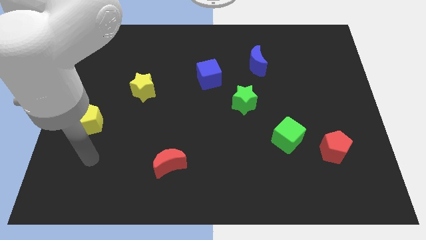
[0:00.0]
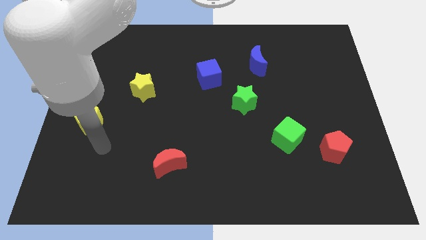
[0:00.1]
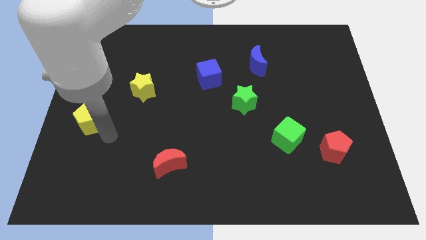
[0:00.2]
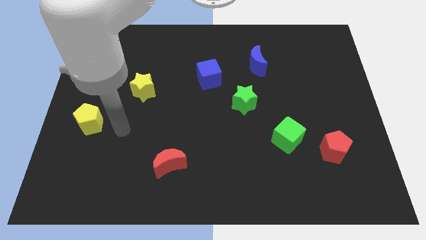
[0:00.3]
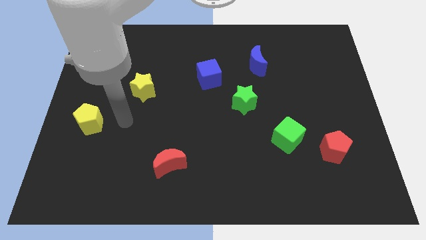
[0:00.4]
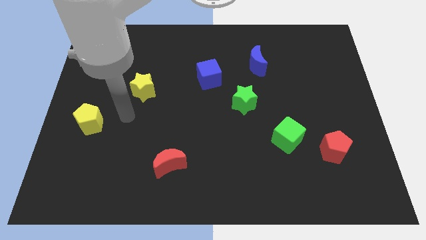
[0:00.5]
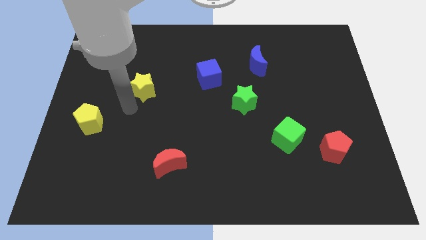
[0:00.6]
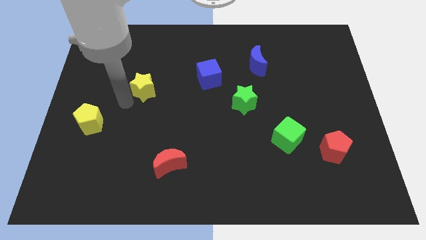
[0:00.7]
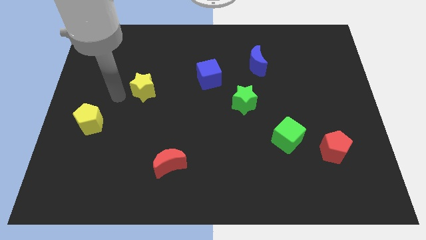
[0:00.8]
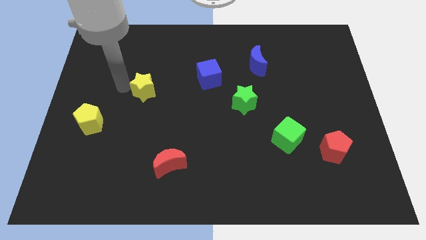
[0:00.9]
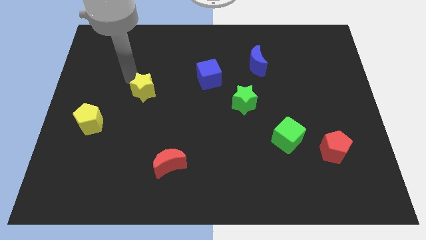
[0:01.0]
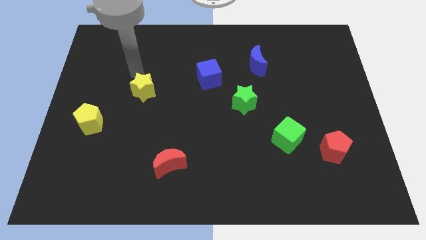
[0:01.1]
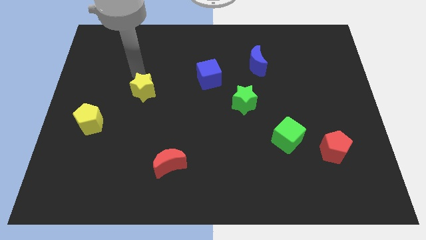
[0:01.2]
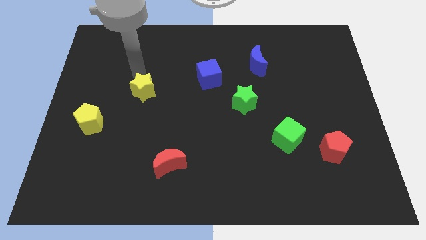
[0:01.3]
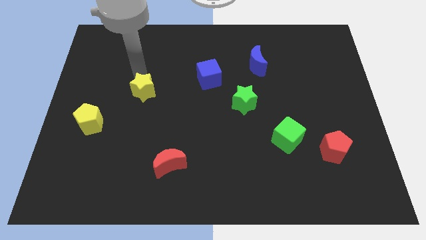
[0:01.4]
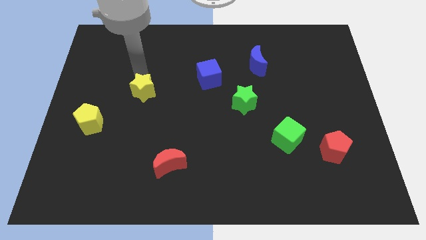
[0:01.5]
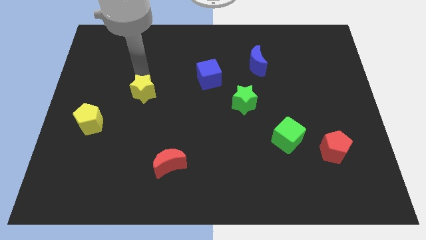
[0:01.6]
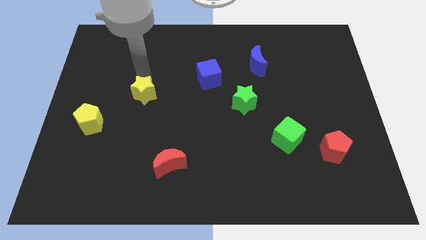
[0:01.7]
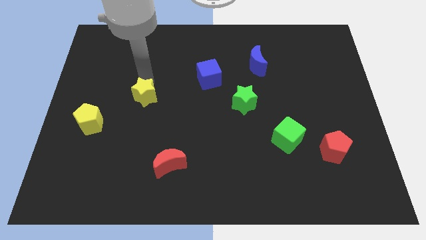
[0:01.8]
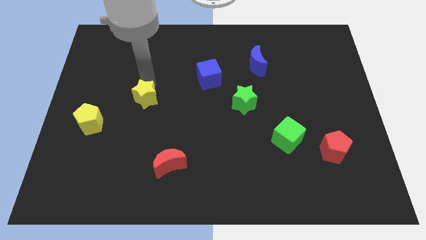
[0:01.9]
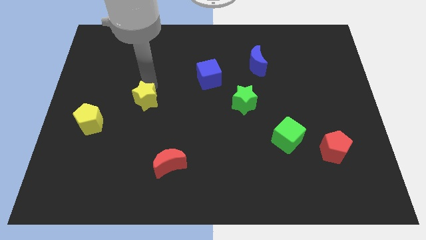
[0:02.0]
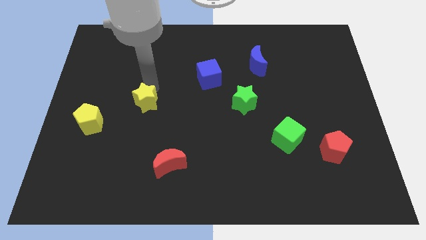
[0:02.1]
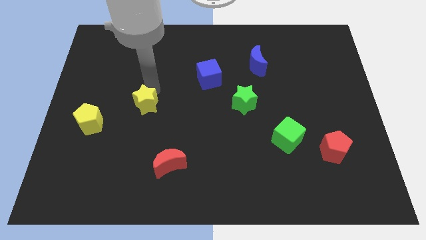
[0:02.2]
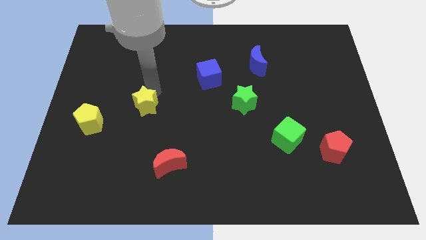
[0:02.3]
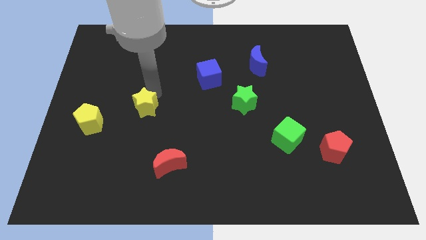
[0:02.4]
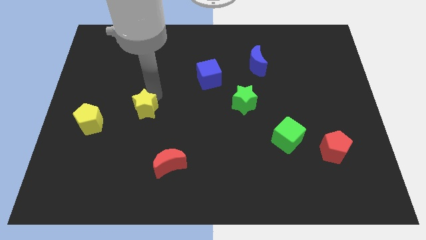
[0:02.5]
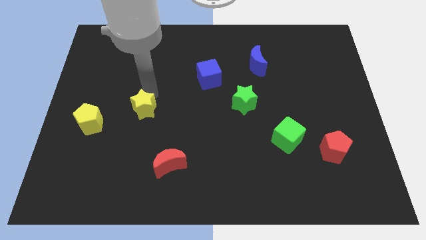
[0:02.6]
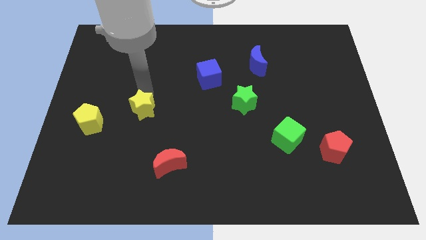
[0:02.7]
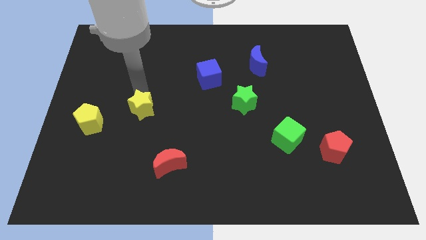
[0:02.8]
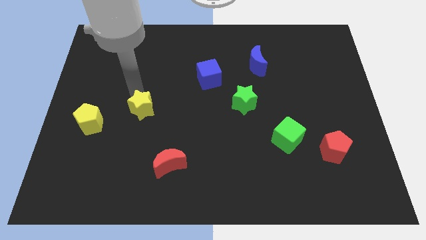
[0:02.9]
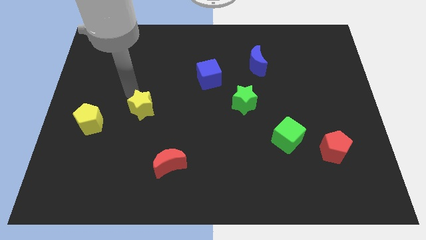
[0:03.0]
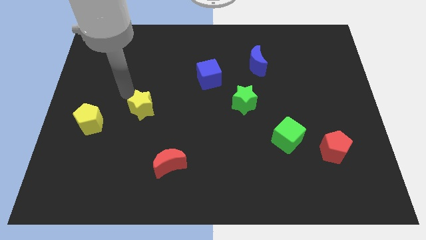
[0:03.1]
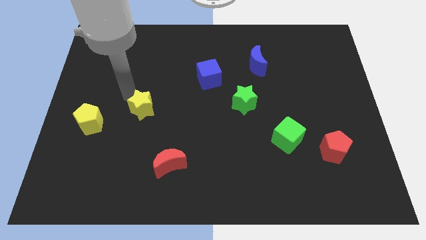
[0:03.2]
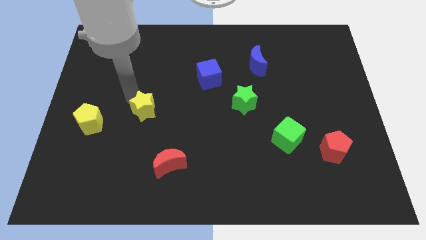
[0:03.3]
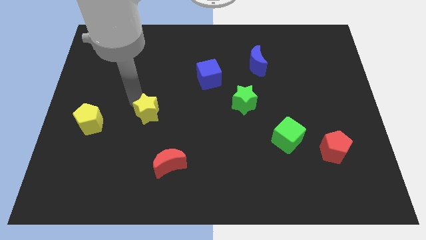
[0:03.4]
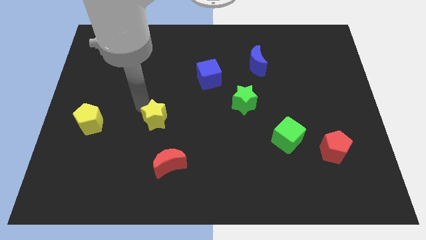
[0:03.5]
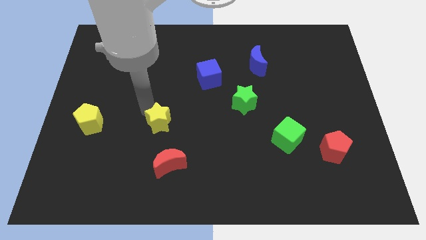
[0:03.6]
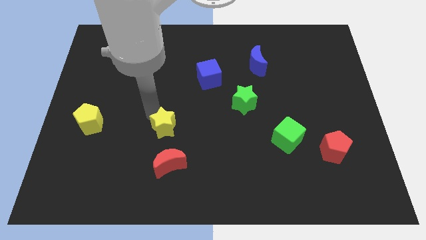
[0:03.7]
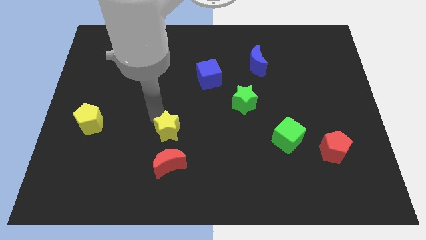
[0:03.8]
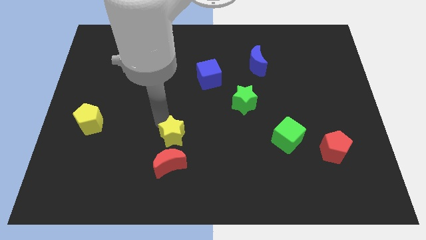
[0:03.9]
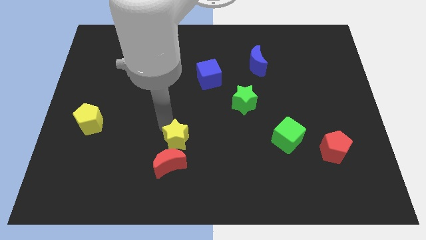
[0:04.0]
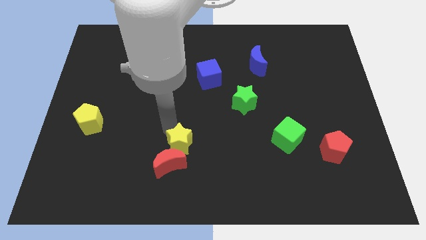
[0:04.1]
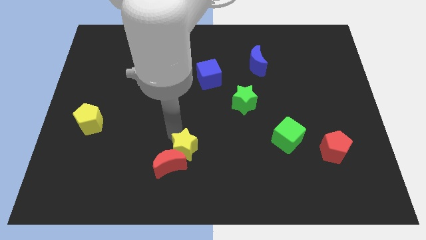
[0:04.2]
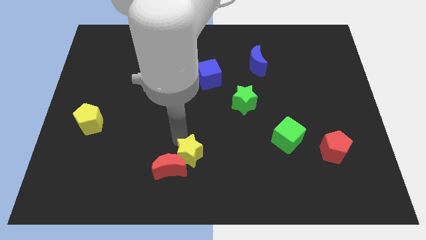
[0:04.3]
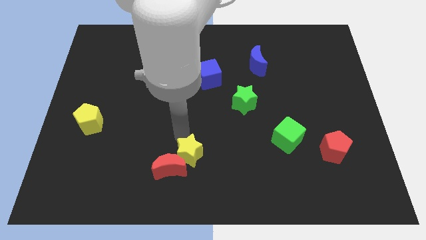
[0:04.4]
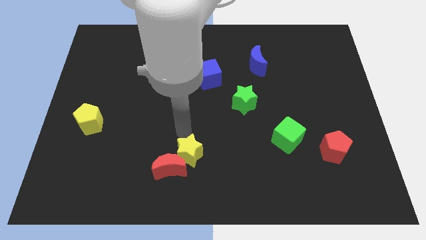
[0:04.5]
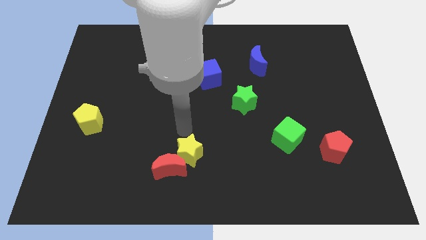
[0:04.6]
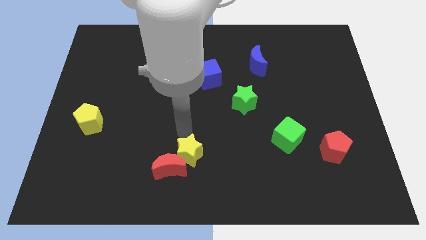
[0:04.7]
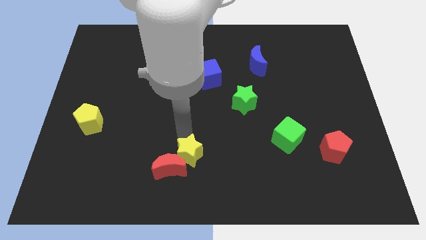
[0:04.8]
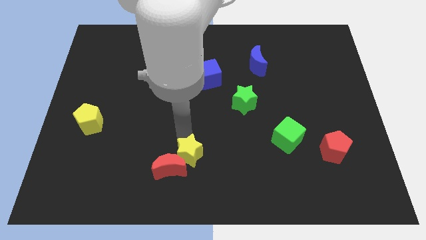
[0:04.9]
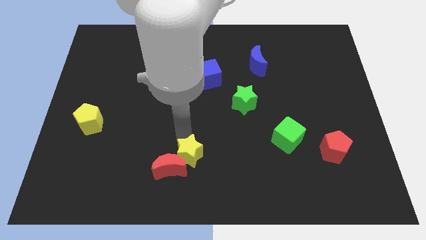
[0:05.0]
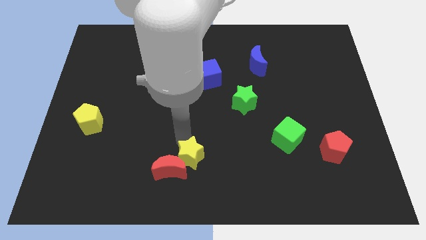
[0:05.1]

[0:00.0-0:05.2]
put the yellow star to the bottom side
